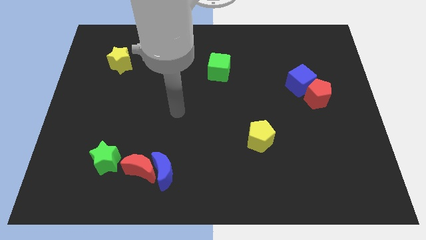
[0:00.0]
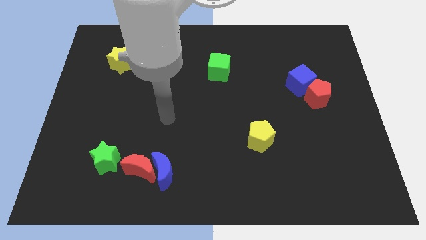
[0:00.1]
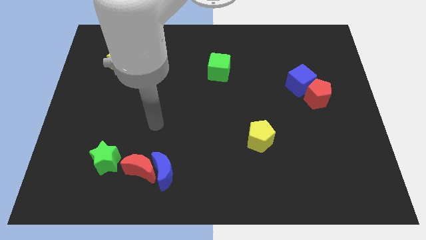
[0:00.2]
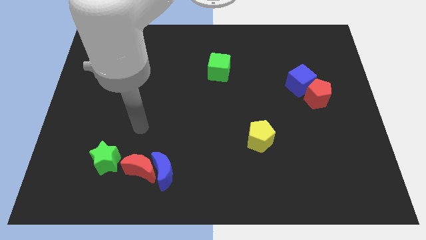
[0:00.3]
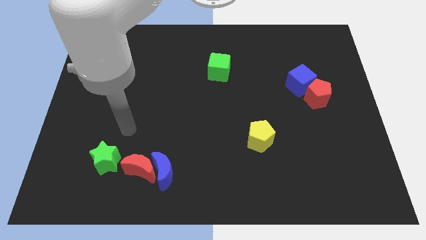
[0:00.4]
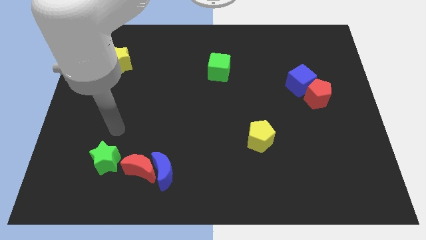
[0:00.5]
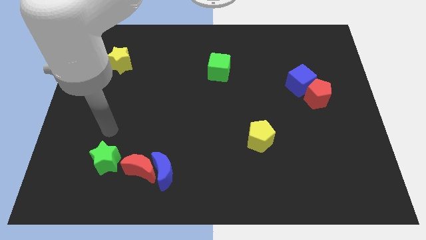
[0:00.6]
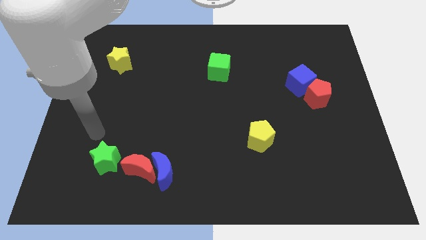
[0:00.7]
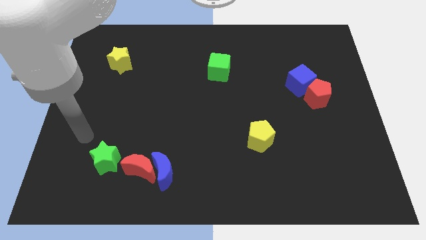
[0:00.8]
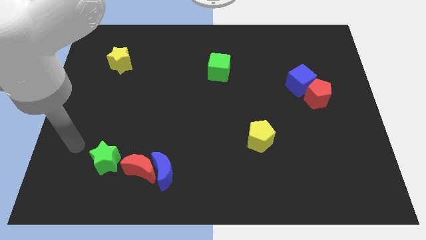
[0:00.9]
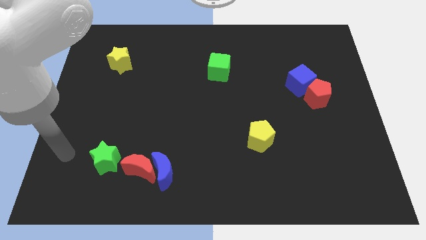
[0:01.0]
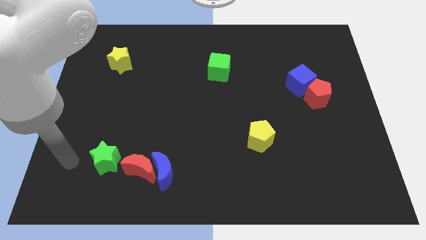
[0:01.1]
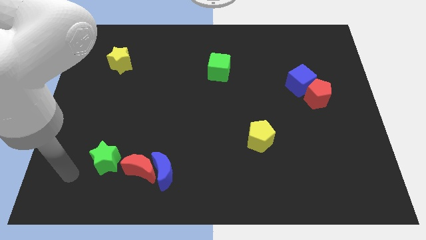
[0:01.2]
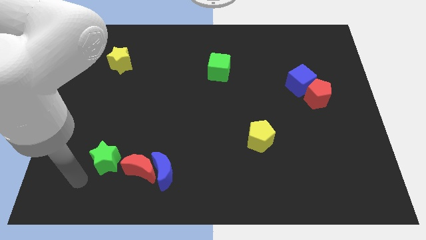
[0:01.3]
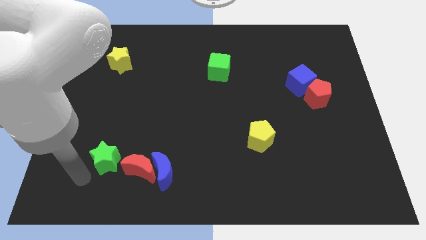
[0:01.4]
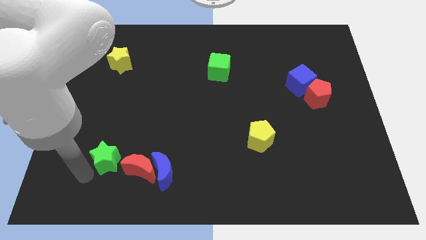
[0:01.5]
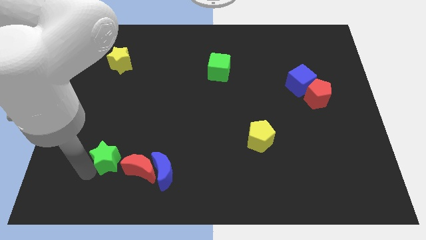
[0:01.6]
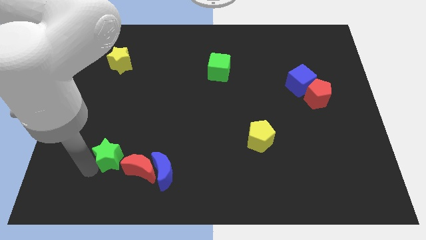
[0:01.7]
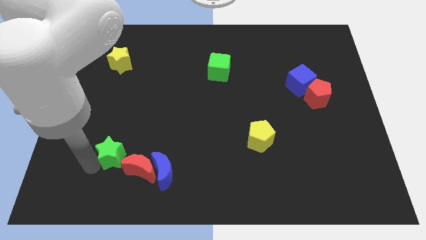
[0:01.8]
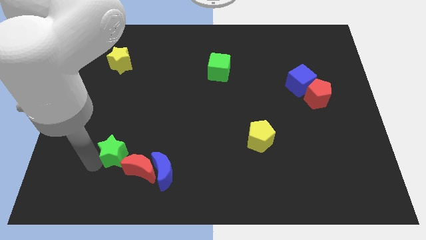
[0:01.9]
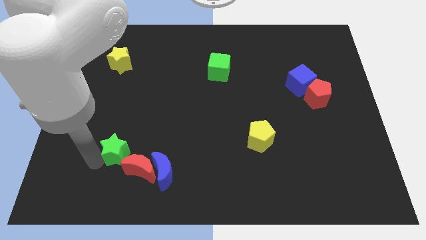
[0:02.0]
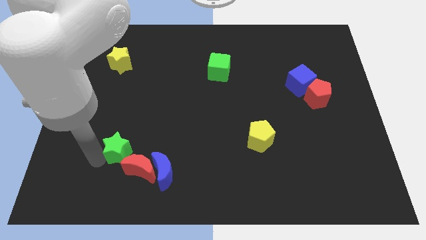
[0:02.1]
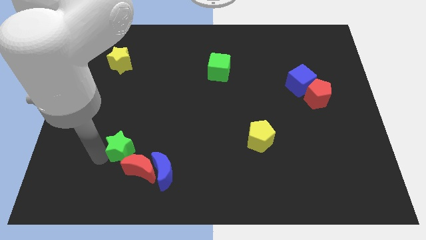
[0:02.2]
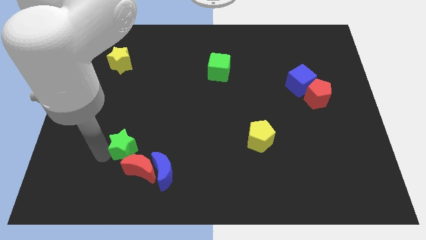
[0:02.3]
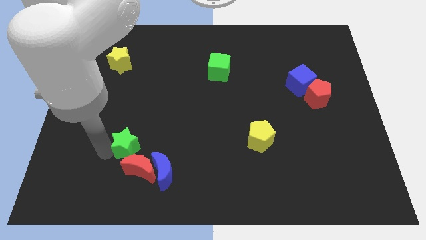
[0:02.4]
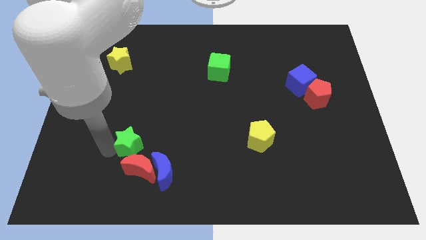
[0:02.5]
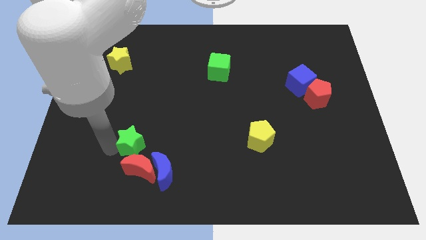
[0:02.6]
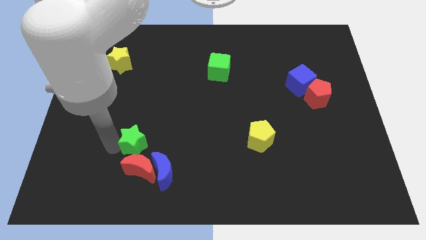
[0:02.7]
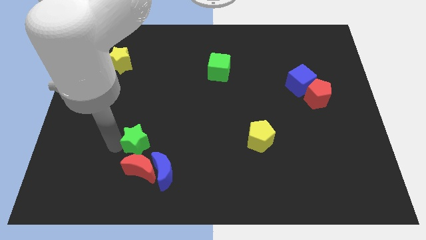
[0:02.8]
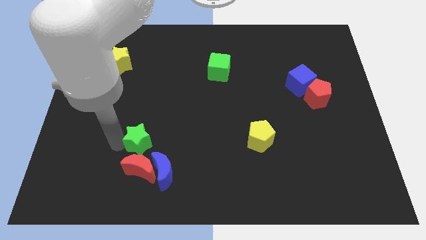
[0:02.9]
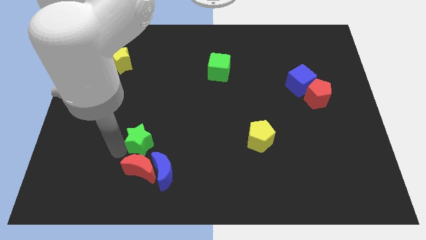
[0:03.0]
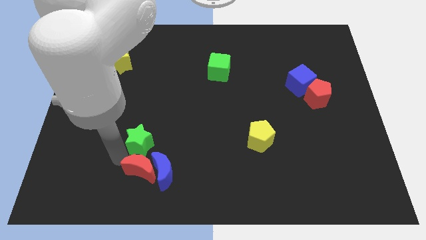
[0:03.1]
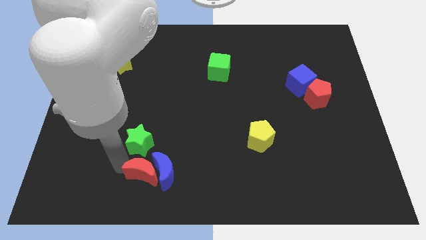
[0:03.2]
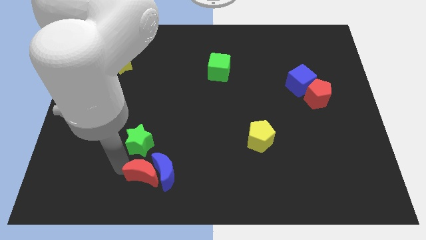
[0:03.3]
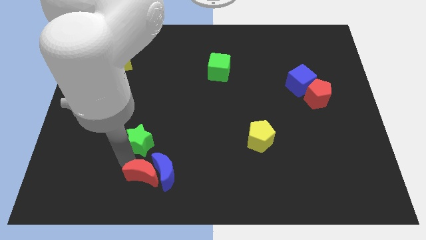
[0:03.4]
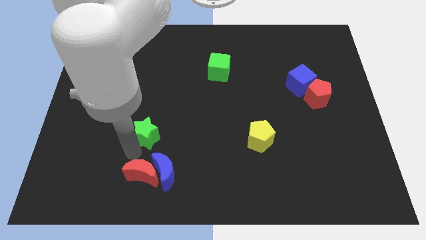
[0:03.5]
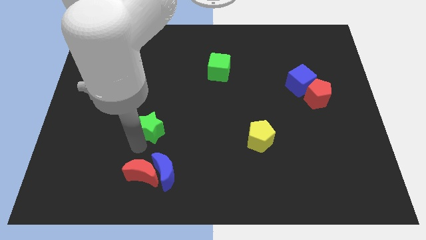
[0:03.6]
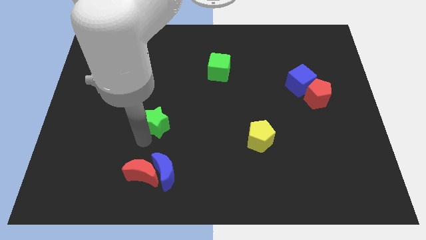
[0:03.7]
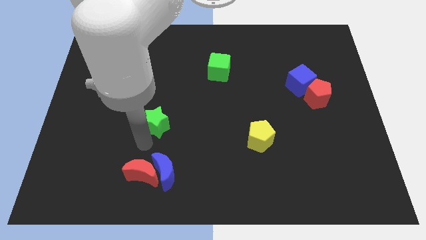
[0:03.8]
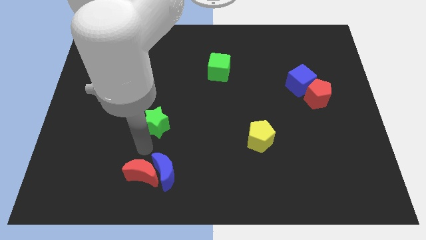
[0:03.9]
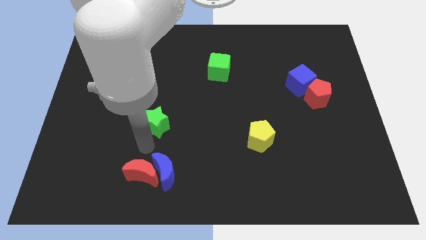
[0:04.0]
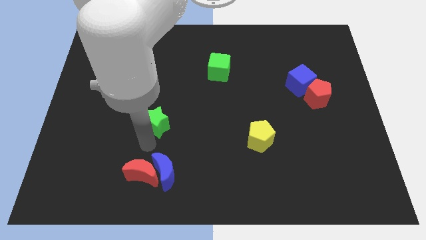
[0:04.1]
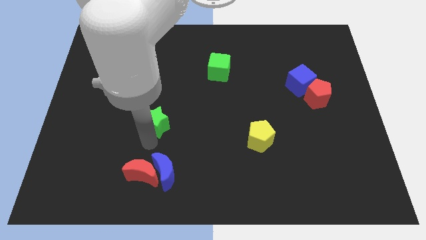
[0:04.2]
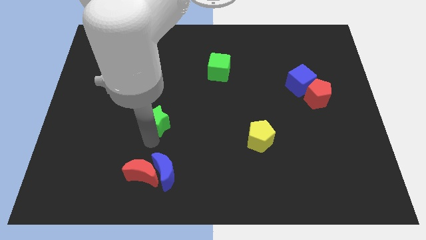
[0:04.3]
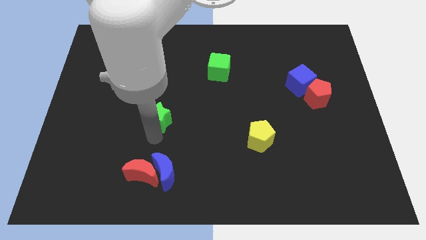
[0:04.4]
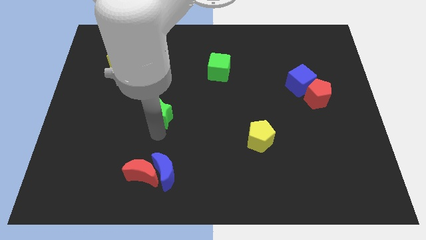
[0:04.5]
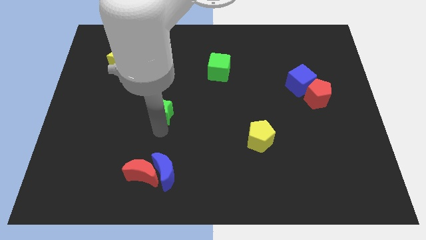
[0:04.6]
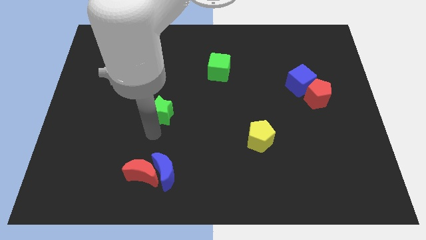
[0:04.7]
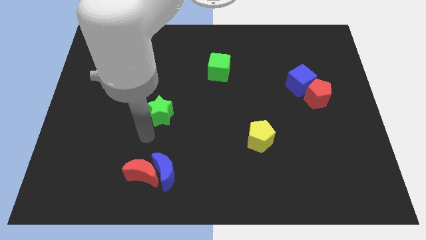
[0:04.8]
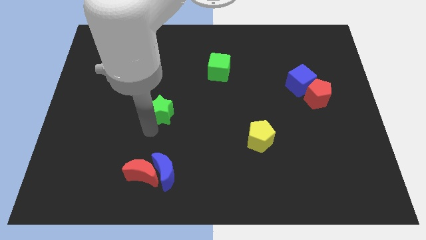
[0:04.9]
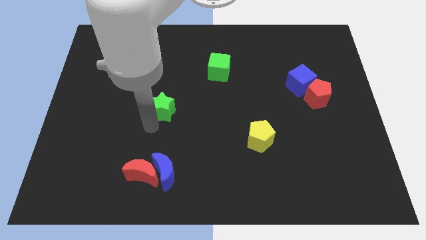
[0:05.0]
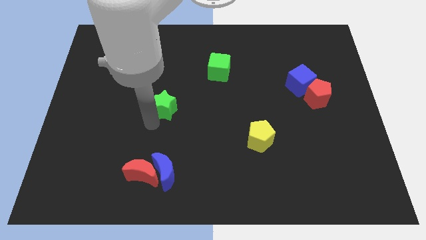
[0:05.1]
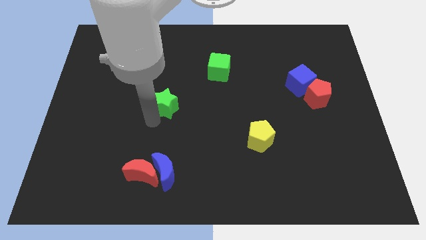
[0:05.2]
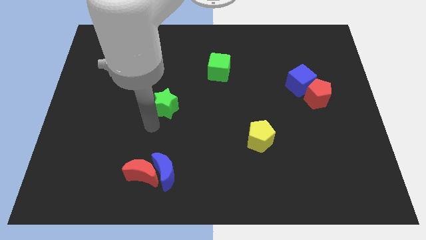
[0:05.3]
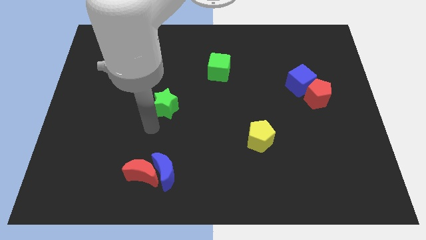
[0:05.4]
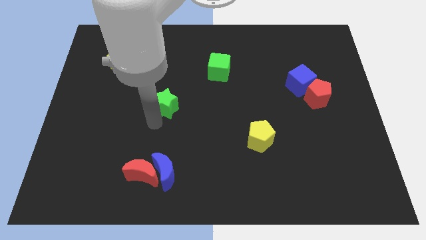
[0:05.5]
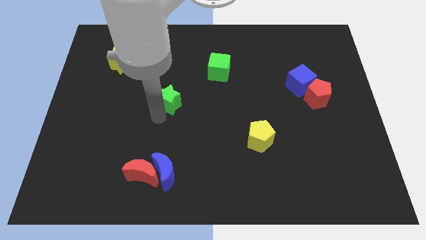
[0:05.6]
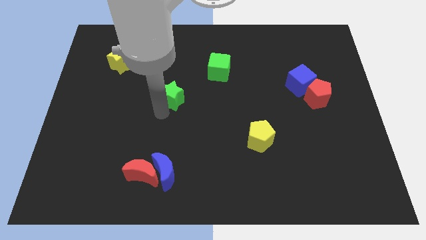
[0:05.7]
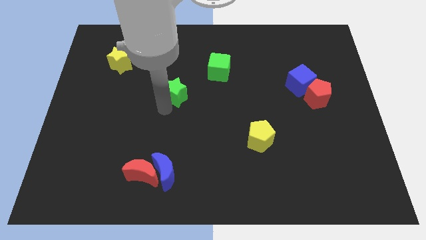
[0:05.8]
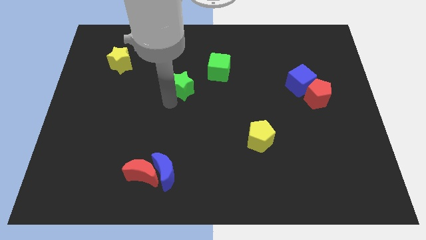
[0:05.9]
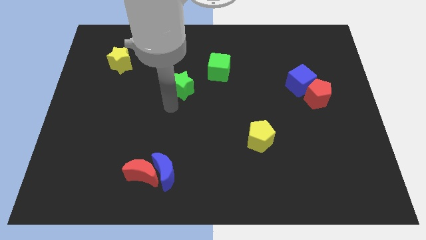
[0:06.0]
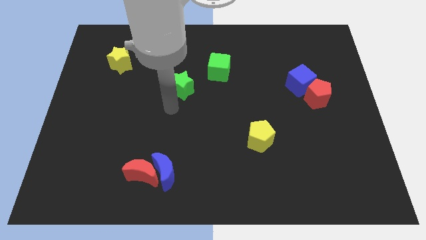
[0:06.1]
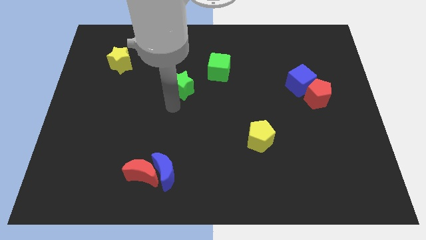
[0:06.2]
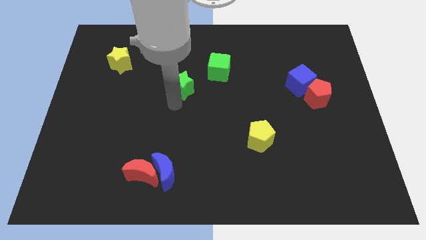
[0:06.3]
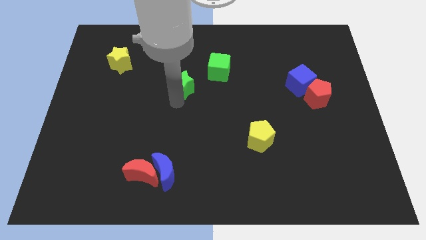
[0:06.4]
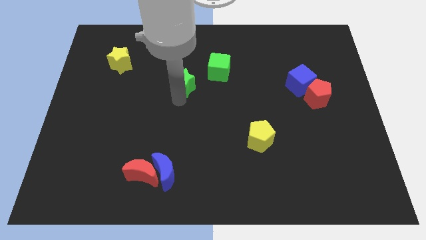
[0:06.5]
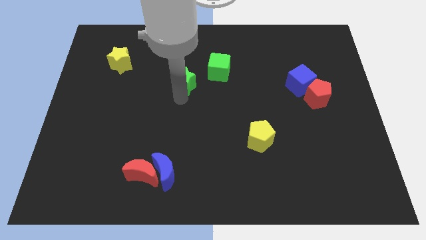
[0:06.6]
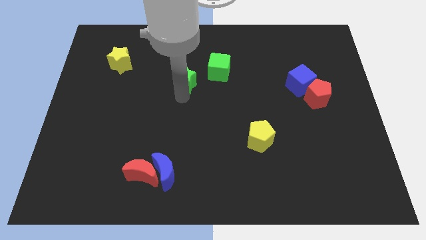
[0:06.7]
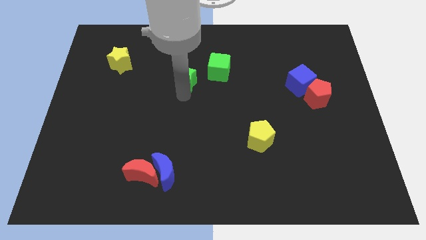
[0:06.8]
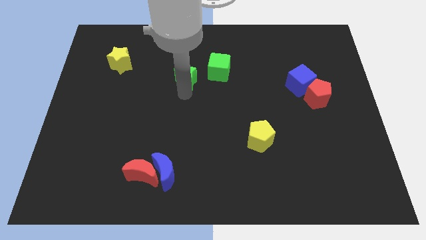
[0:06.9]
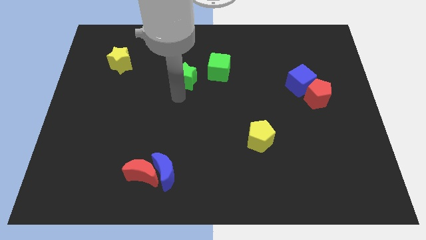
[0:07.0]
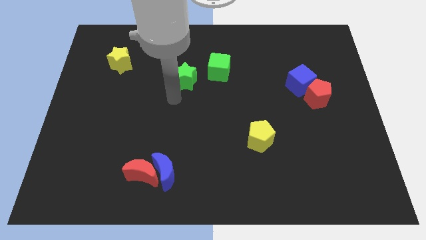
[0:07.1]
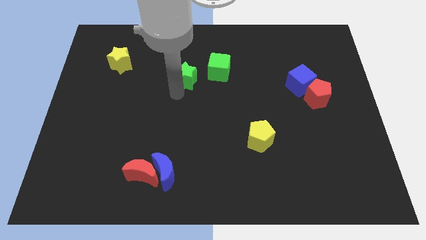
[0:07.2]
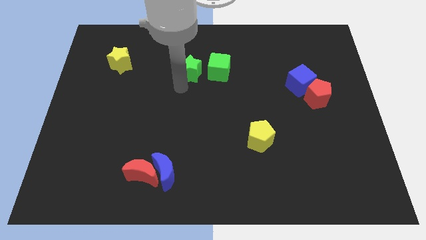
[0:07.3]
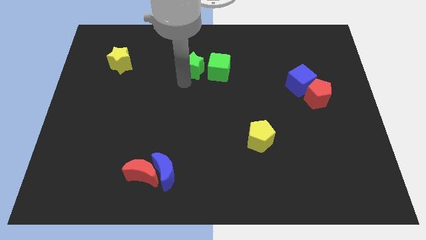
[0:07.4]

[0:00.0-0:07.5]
put the green star to the top left of the green cube

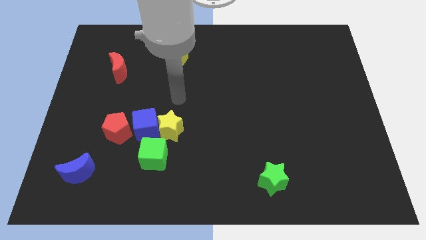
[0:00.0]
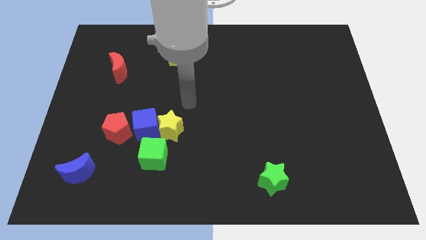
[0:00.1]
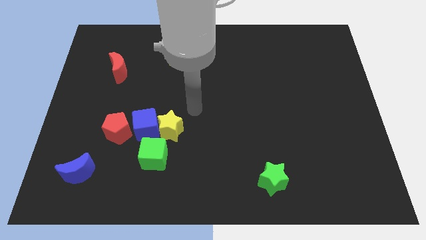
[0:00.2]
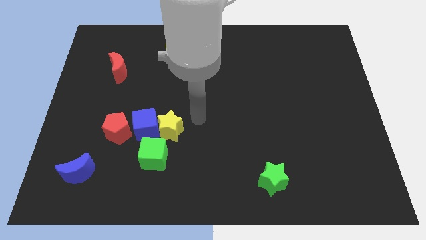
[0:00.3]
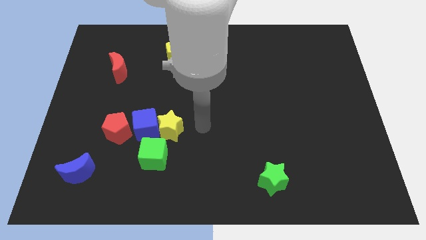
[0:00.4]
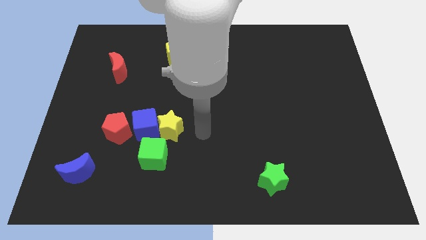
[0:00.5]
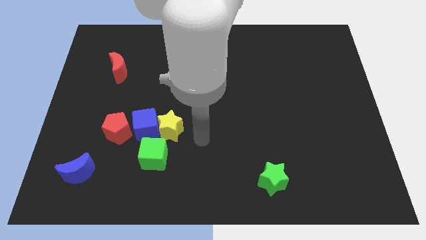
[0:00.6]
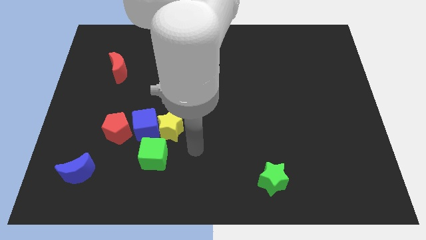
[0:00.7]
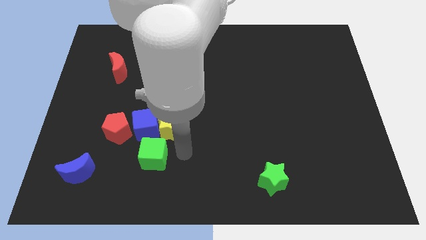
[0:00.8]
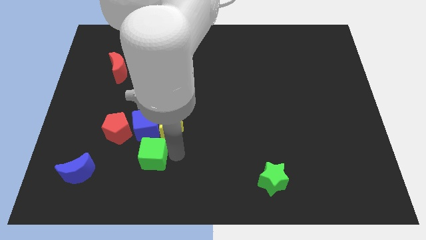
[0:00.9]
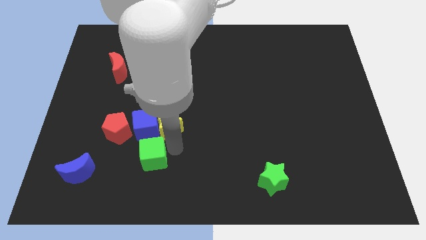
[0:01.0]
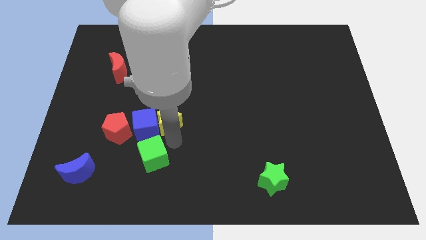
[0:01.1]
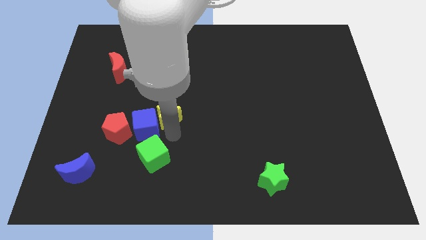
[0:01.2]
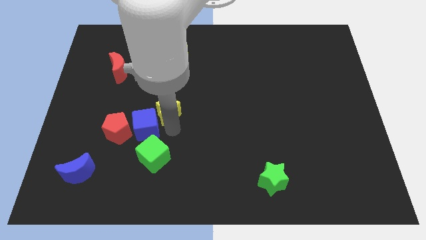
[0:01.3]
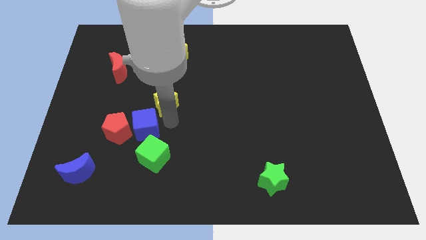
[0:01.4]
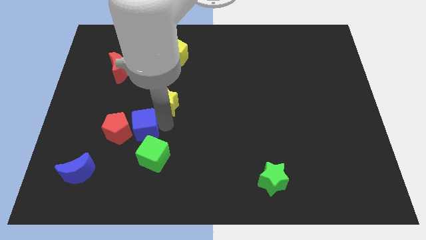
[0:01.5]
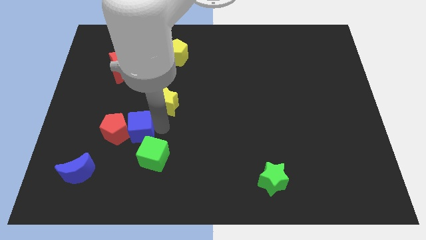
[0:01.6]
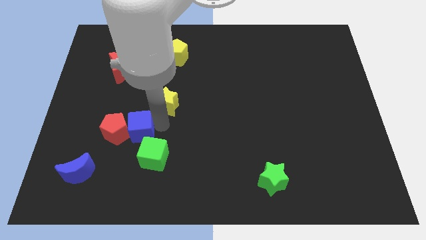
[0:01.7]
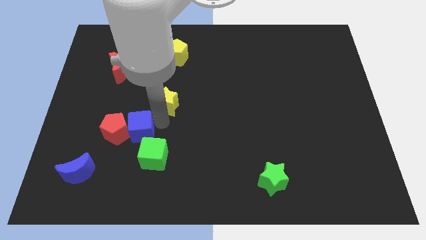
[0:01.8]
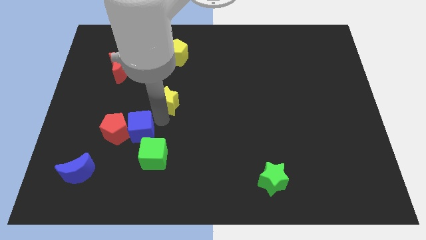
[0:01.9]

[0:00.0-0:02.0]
put the yellow star to the bottom of the yellow pentagon
